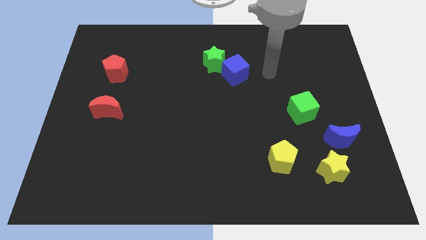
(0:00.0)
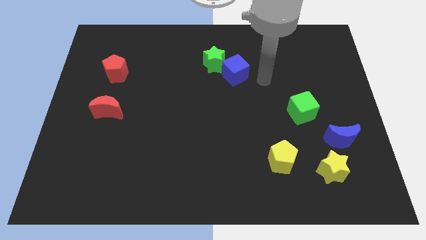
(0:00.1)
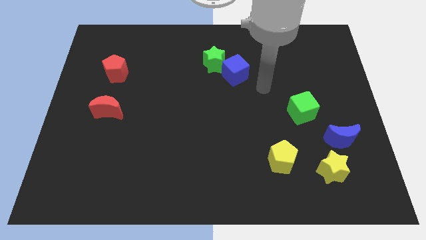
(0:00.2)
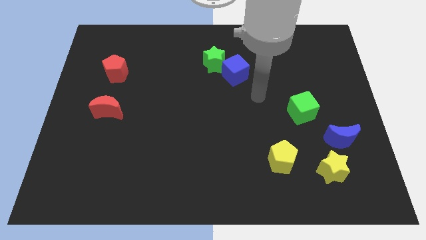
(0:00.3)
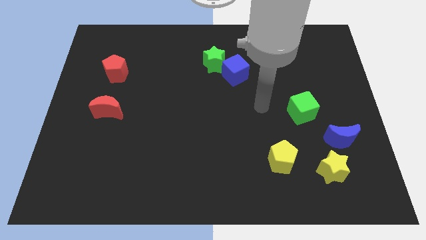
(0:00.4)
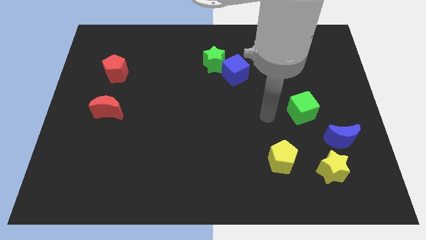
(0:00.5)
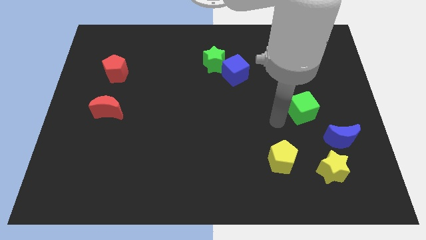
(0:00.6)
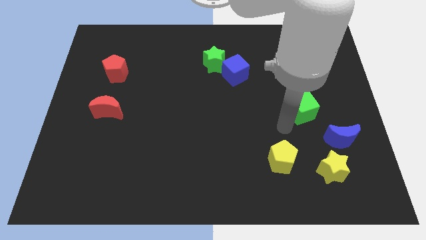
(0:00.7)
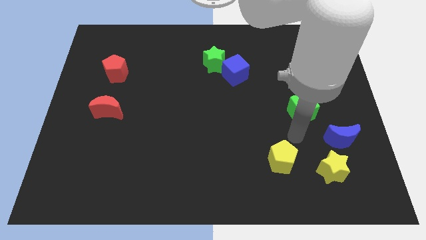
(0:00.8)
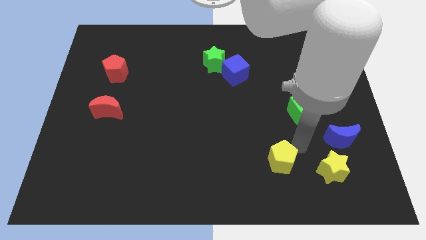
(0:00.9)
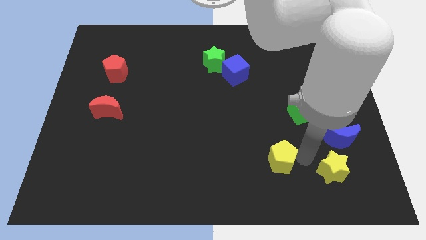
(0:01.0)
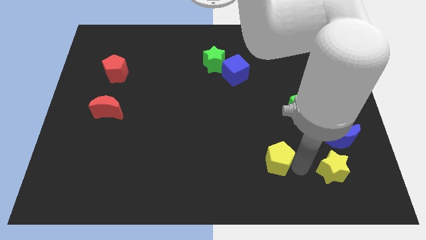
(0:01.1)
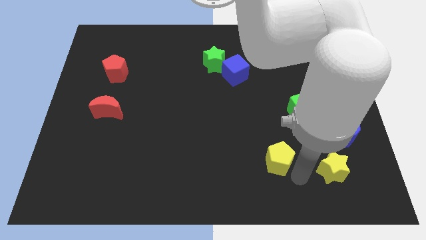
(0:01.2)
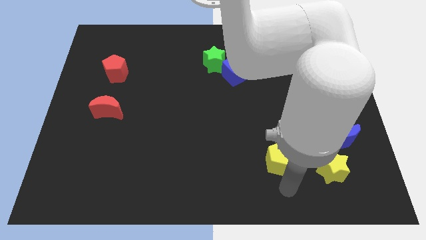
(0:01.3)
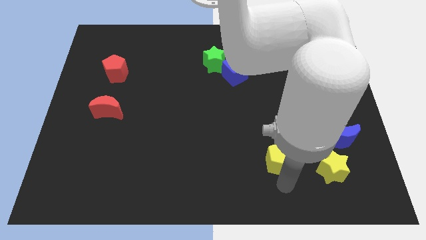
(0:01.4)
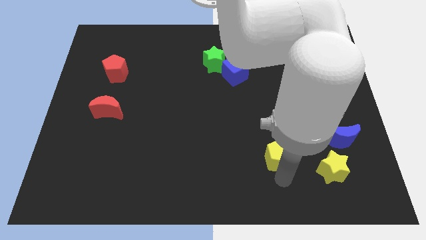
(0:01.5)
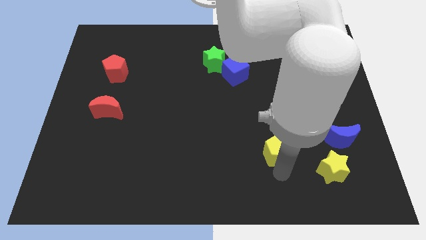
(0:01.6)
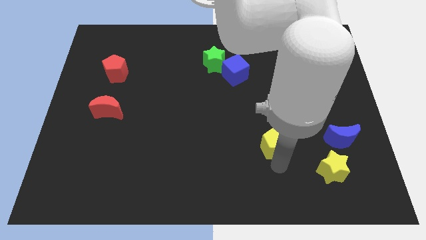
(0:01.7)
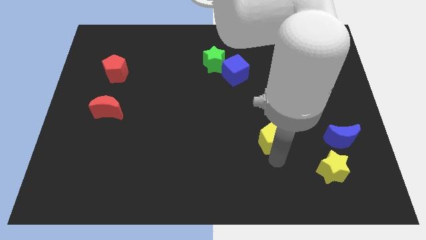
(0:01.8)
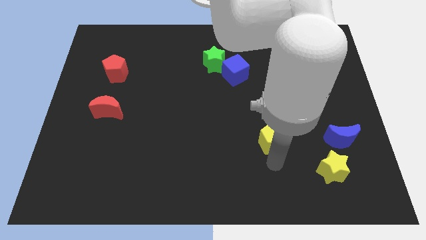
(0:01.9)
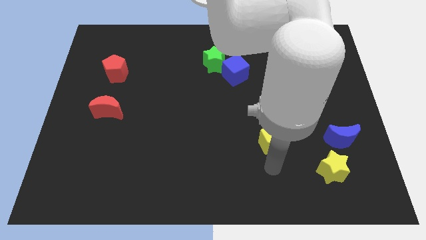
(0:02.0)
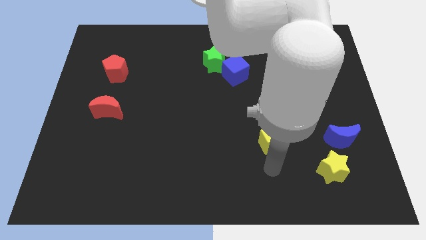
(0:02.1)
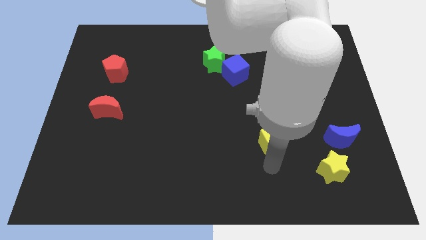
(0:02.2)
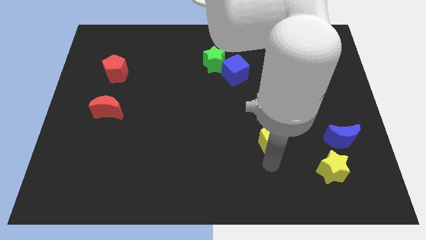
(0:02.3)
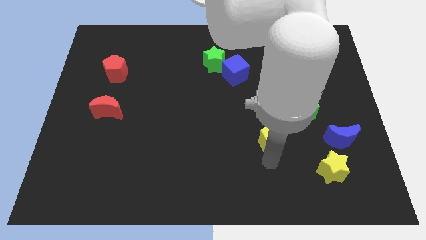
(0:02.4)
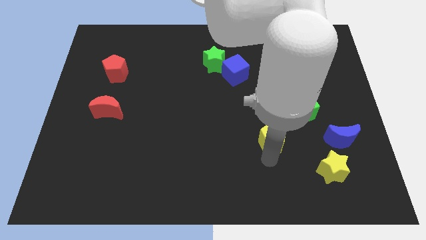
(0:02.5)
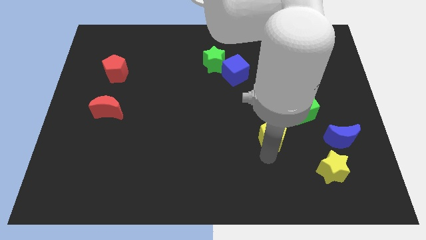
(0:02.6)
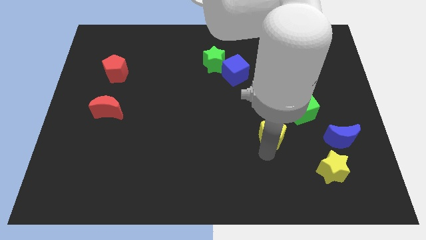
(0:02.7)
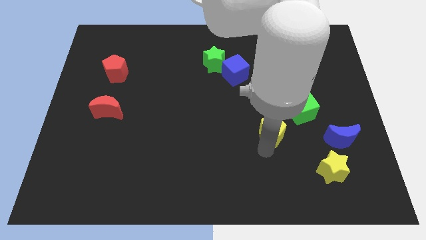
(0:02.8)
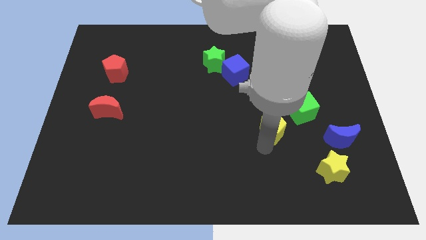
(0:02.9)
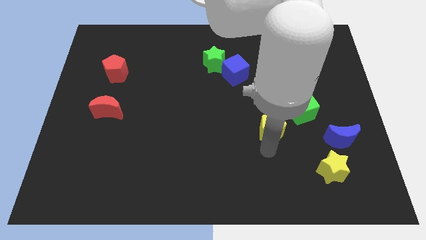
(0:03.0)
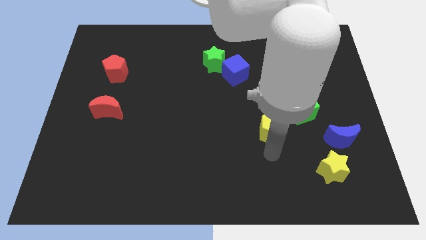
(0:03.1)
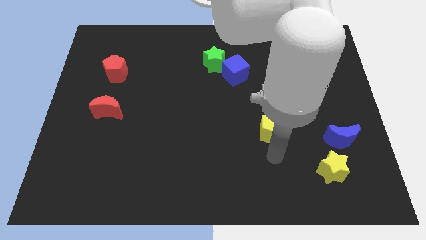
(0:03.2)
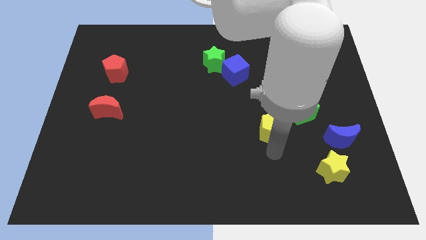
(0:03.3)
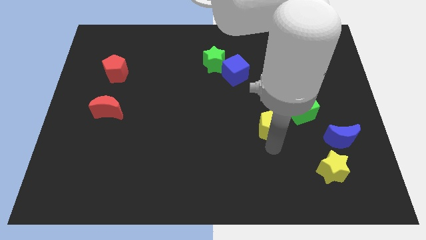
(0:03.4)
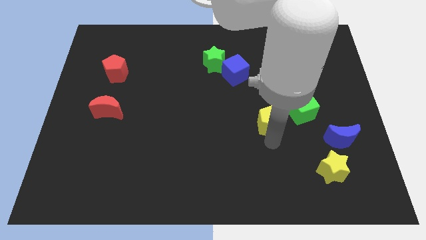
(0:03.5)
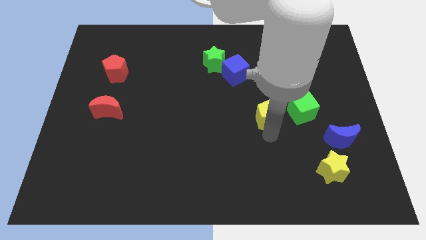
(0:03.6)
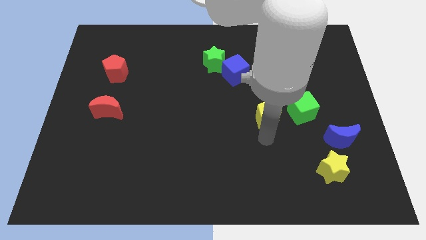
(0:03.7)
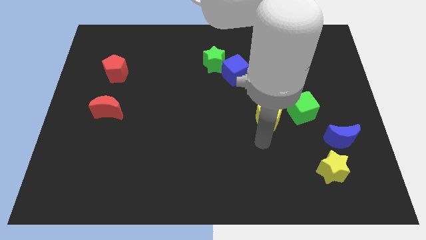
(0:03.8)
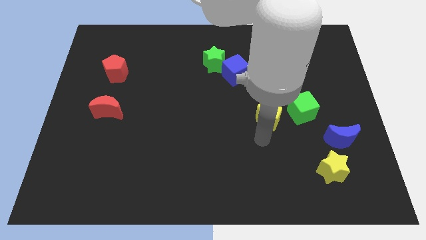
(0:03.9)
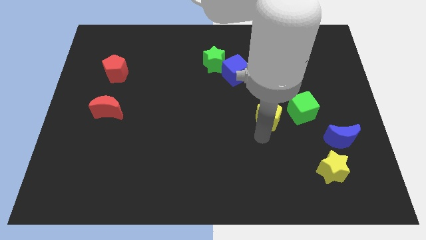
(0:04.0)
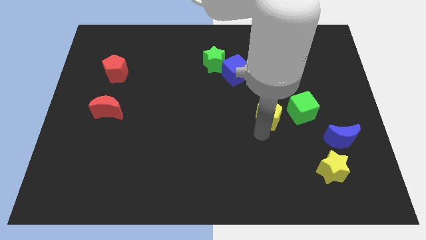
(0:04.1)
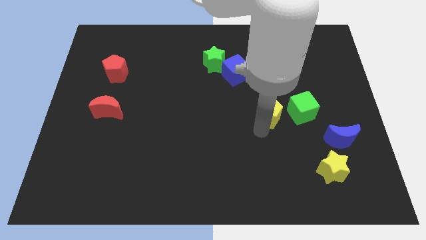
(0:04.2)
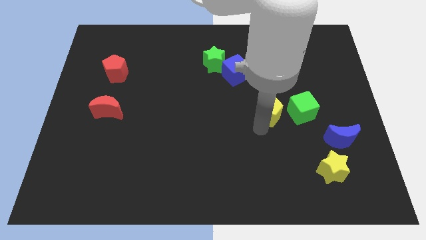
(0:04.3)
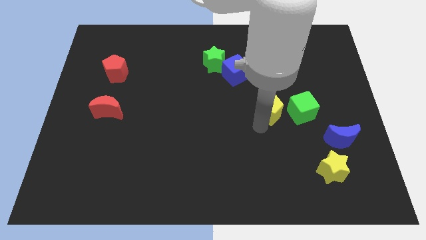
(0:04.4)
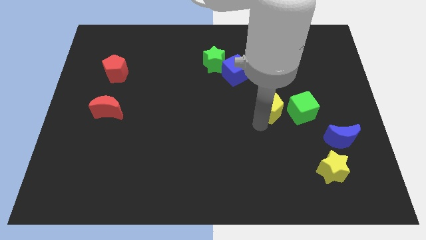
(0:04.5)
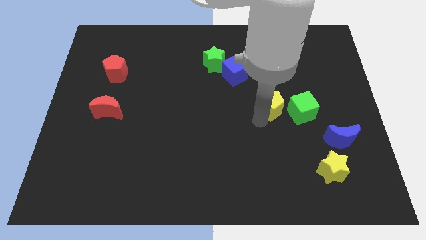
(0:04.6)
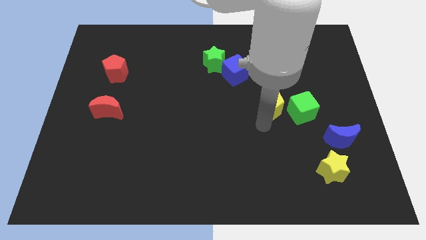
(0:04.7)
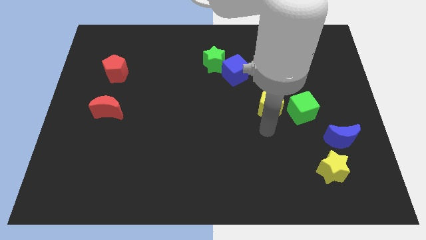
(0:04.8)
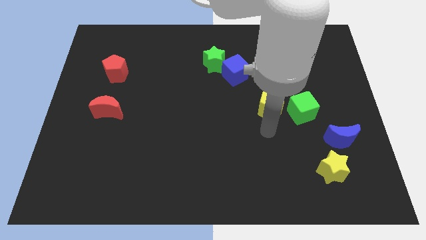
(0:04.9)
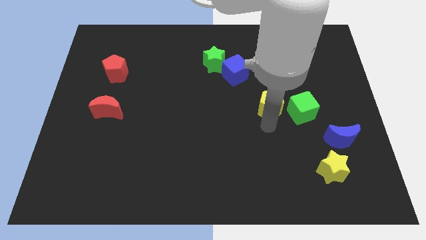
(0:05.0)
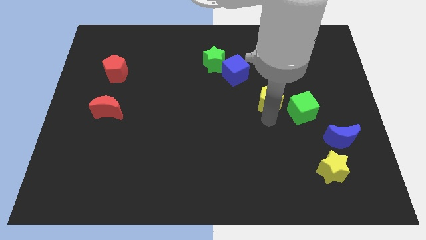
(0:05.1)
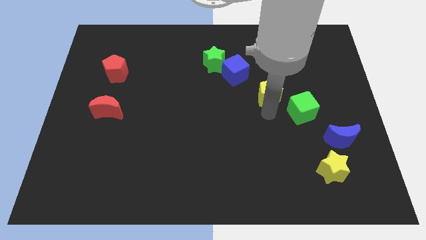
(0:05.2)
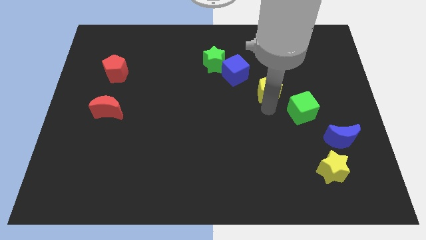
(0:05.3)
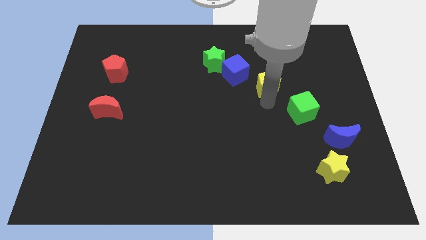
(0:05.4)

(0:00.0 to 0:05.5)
move the yellow pentagon to the right side of the blue cube

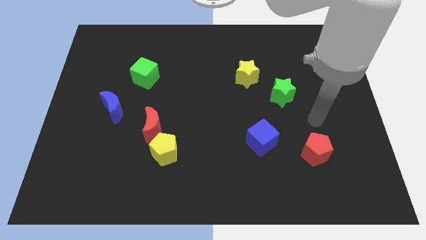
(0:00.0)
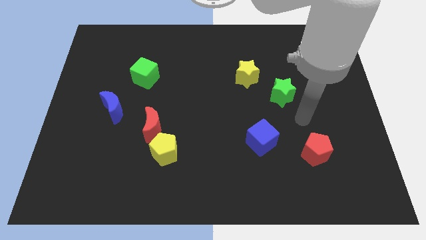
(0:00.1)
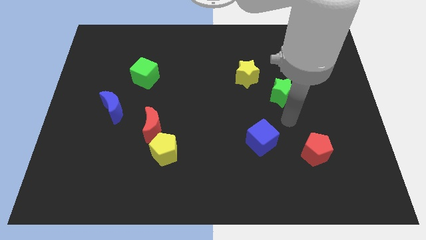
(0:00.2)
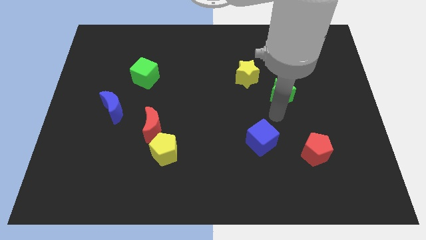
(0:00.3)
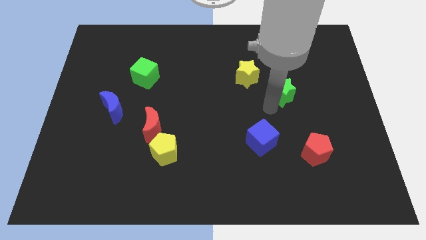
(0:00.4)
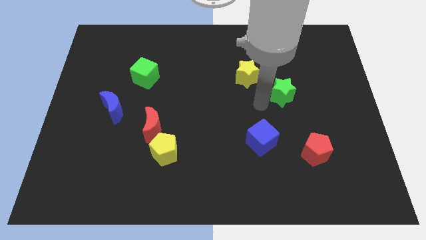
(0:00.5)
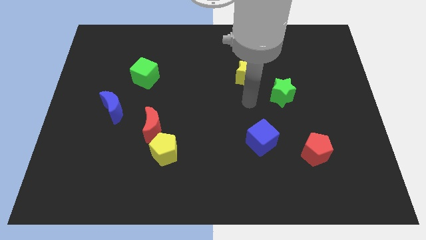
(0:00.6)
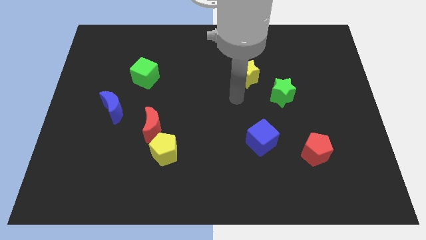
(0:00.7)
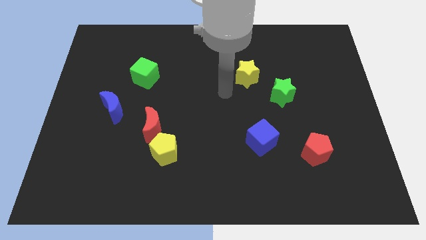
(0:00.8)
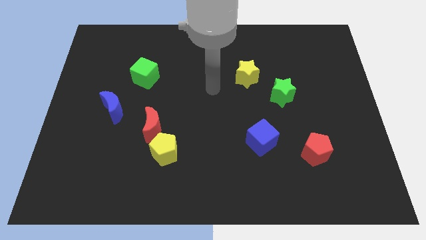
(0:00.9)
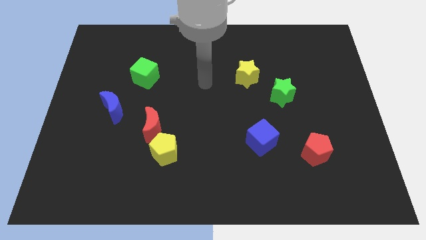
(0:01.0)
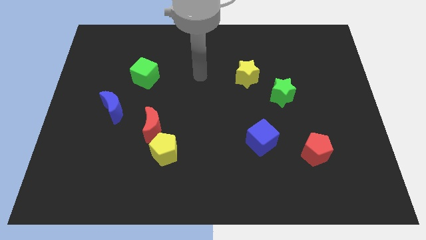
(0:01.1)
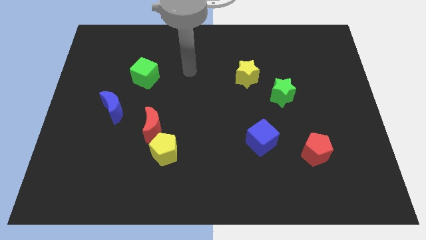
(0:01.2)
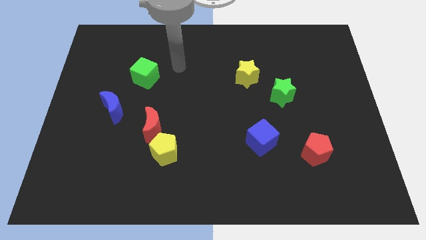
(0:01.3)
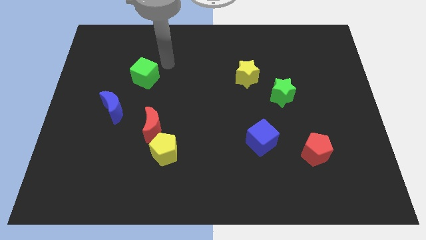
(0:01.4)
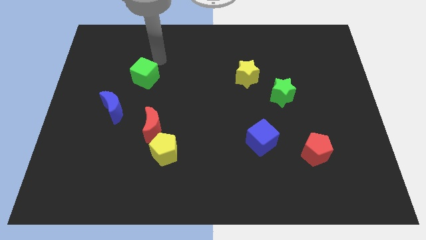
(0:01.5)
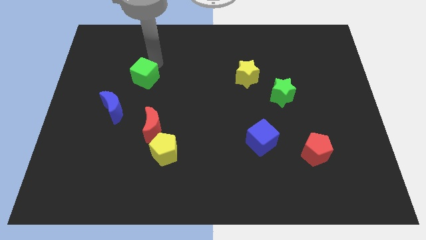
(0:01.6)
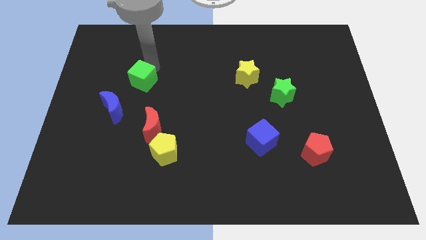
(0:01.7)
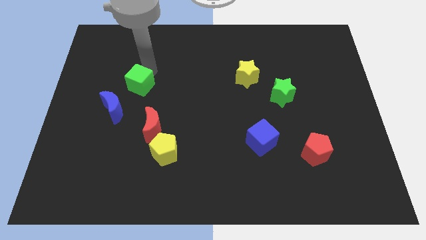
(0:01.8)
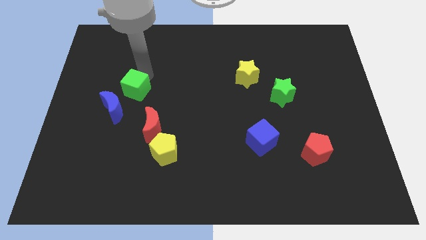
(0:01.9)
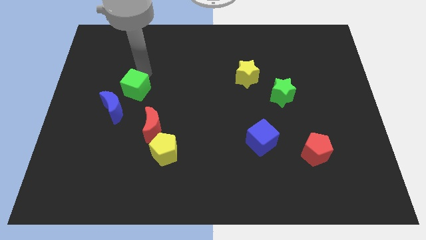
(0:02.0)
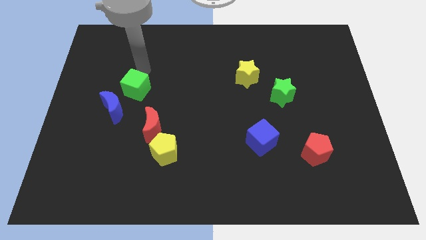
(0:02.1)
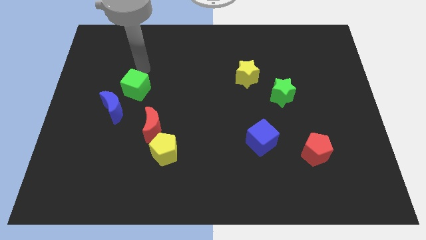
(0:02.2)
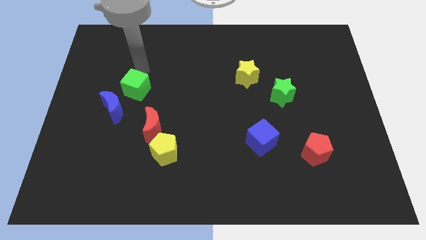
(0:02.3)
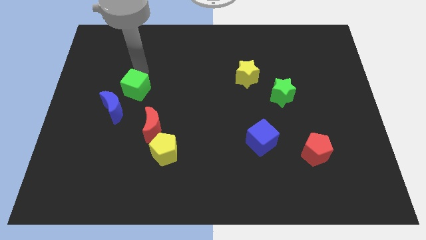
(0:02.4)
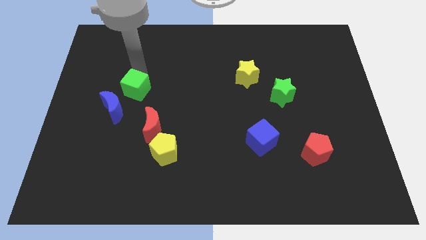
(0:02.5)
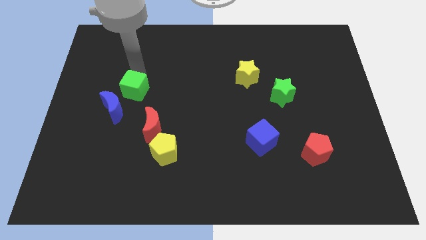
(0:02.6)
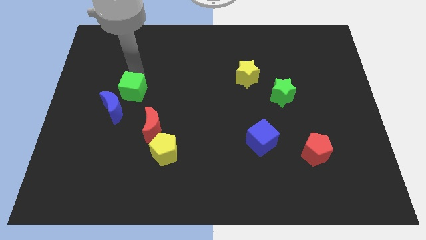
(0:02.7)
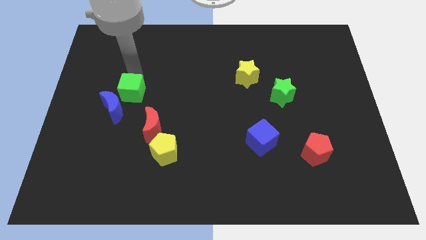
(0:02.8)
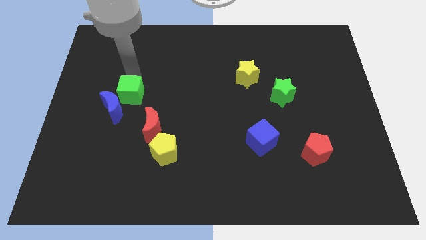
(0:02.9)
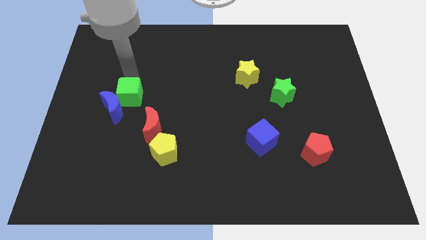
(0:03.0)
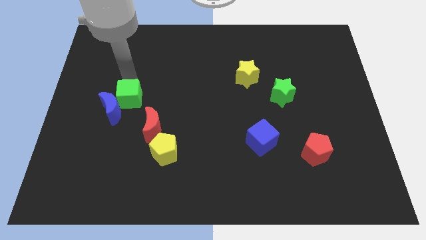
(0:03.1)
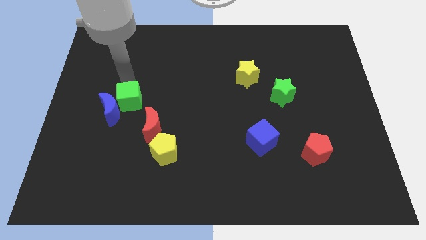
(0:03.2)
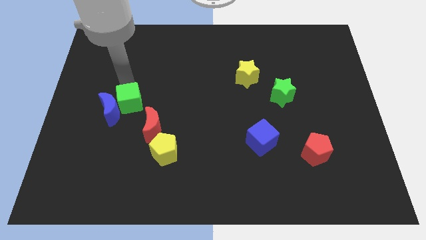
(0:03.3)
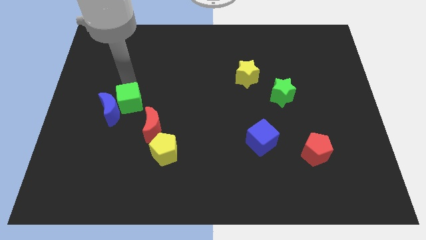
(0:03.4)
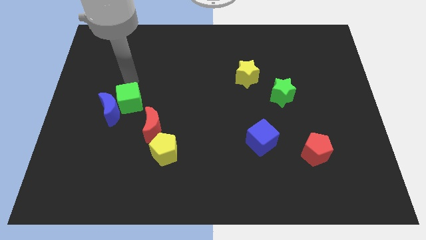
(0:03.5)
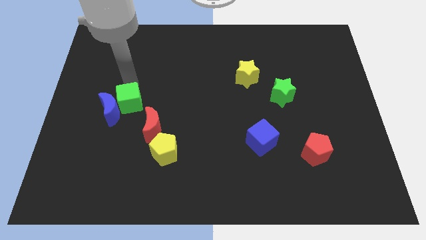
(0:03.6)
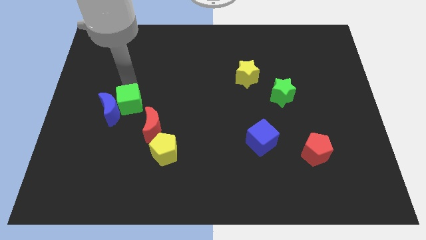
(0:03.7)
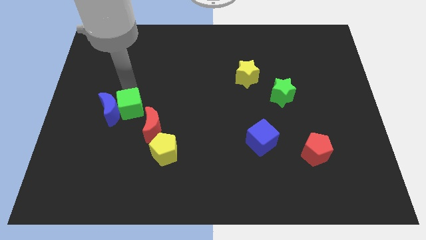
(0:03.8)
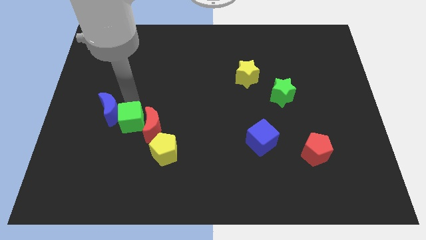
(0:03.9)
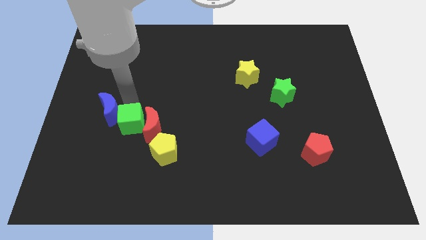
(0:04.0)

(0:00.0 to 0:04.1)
move the green cube diagonally down and to the left of the red moon
